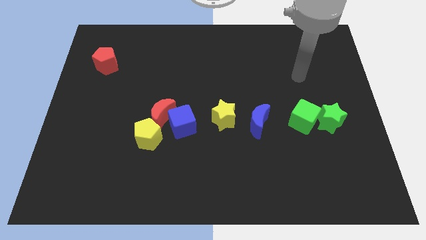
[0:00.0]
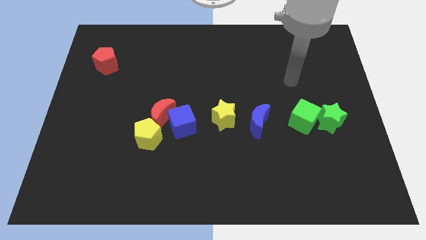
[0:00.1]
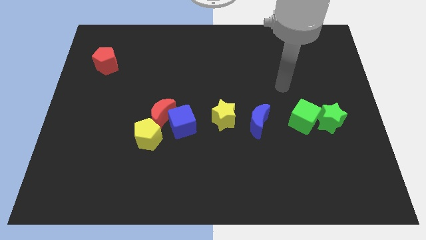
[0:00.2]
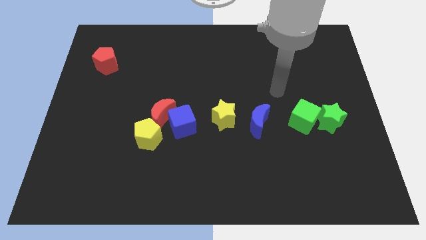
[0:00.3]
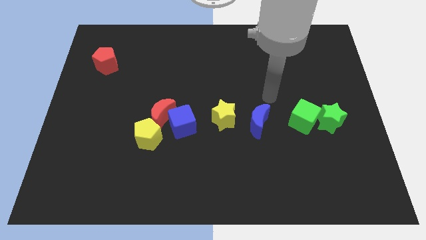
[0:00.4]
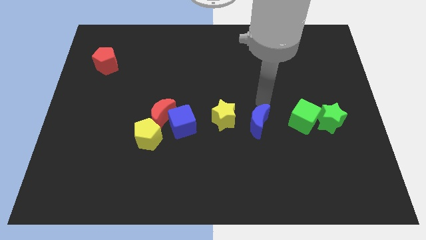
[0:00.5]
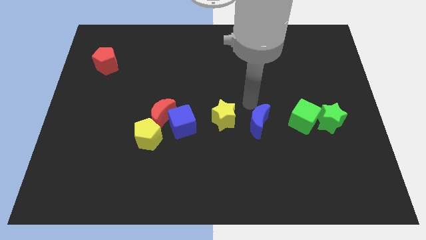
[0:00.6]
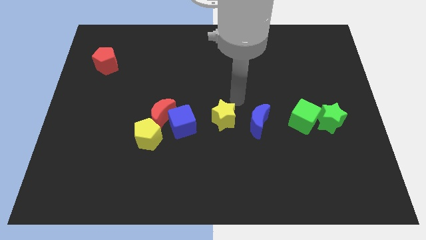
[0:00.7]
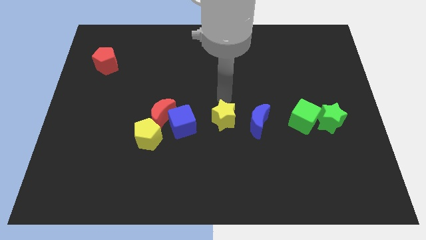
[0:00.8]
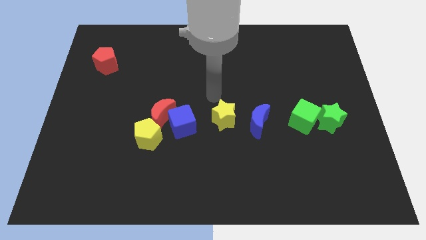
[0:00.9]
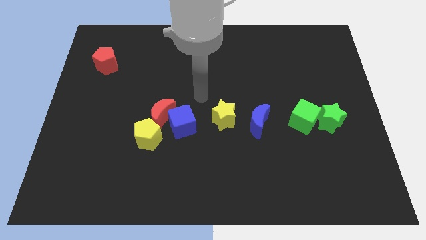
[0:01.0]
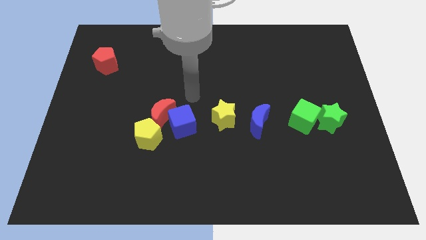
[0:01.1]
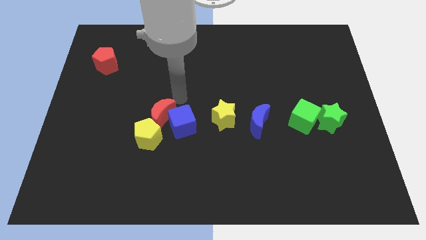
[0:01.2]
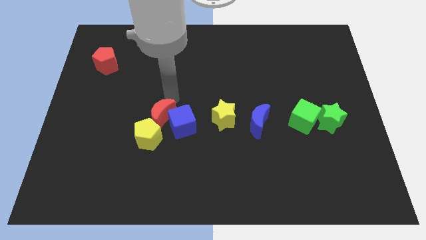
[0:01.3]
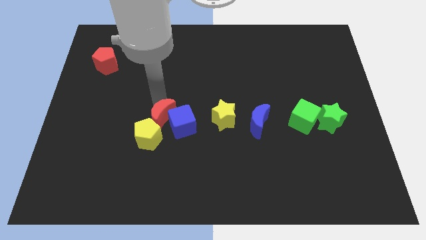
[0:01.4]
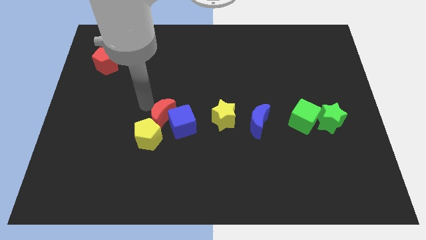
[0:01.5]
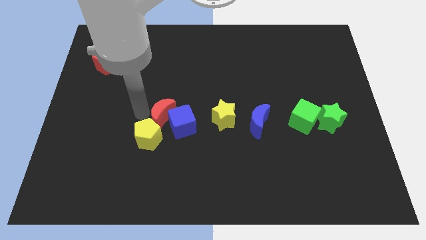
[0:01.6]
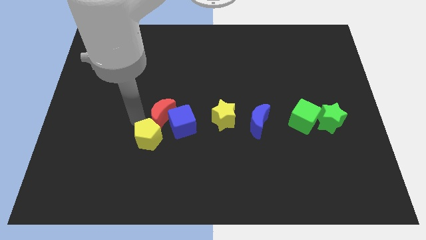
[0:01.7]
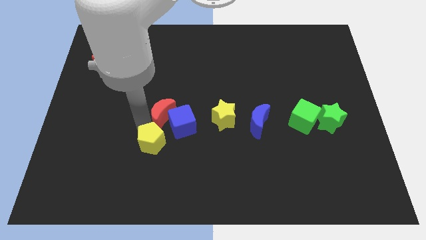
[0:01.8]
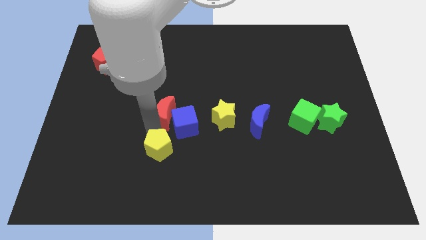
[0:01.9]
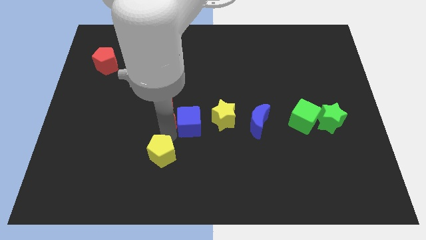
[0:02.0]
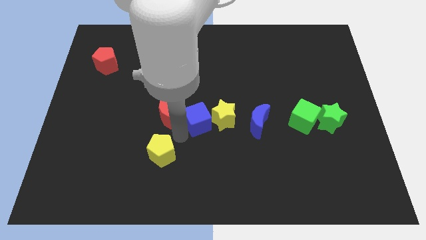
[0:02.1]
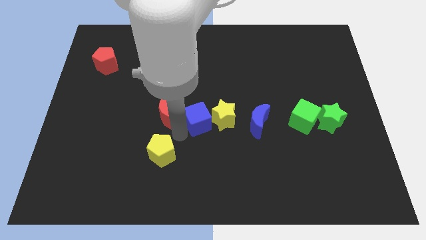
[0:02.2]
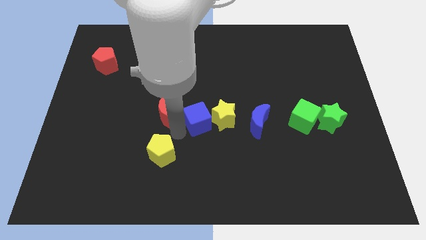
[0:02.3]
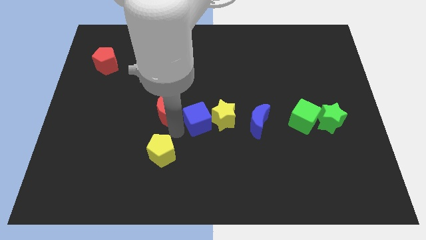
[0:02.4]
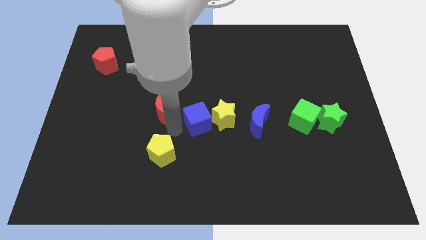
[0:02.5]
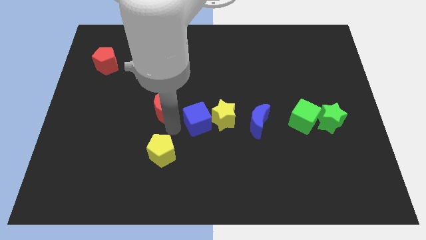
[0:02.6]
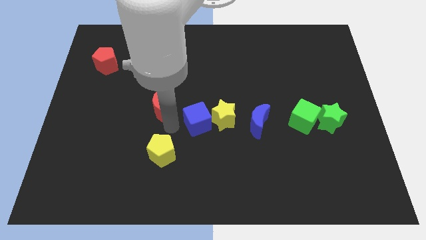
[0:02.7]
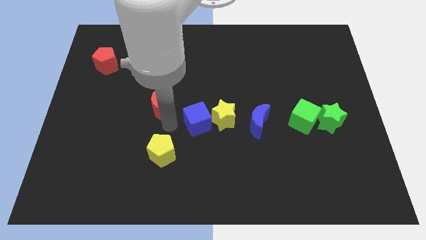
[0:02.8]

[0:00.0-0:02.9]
separate the red moon from the blue cube and yellow pentagon

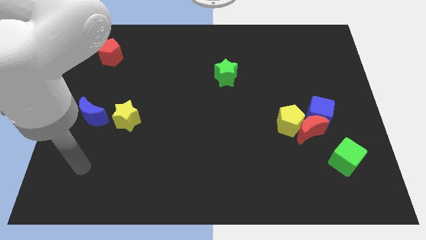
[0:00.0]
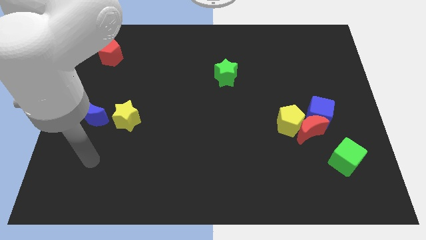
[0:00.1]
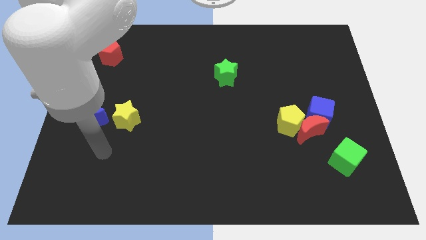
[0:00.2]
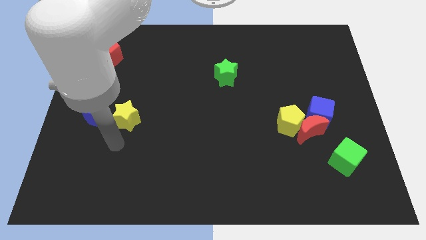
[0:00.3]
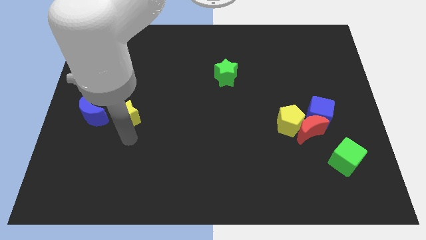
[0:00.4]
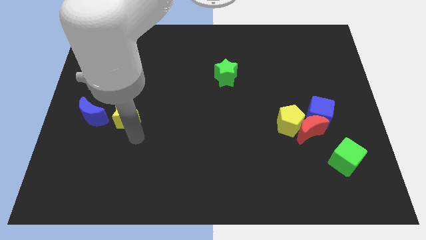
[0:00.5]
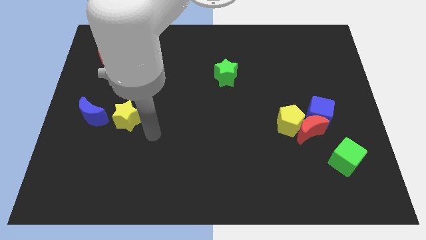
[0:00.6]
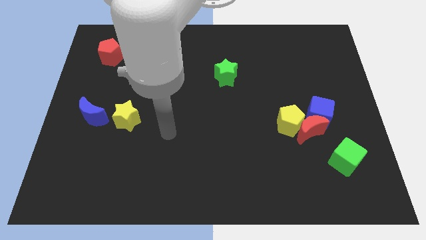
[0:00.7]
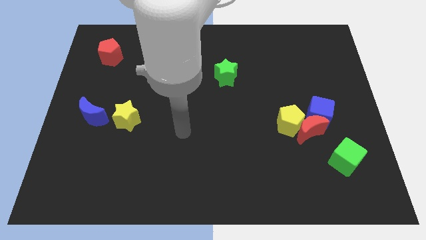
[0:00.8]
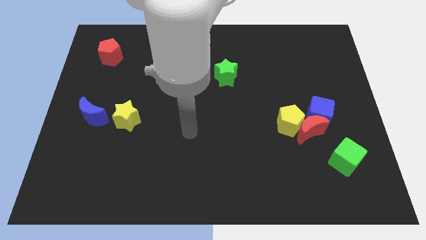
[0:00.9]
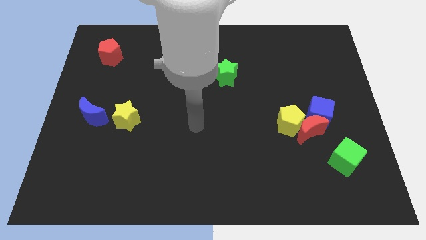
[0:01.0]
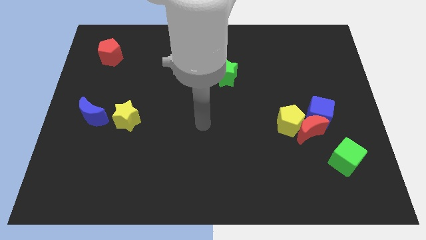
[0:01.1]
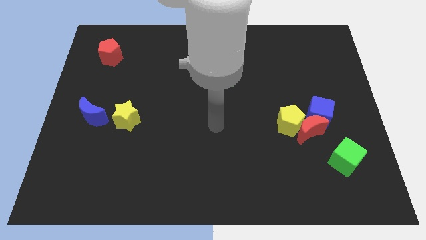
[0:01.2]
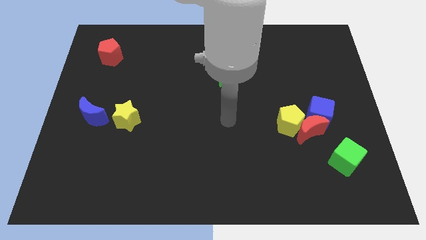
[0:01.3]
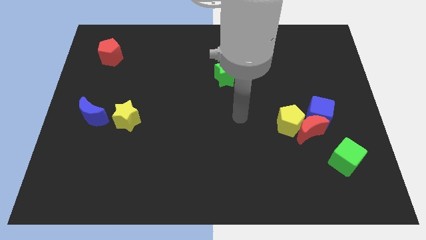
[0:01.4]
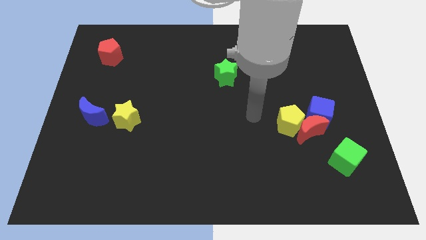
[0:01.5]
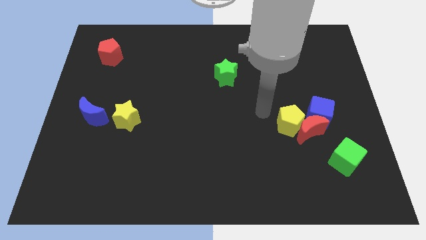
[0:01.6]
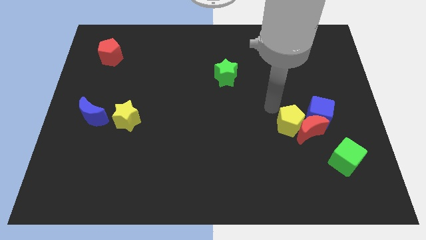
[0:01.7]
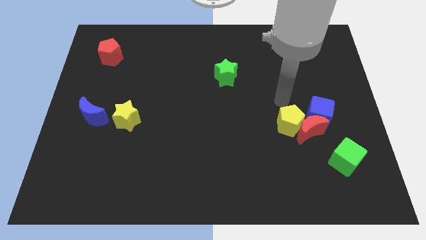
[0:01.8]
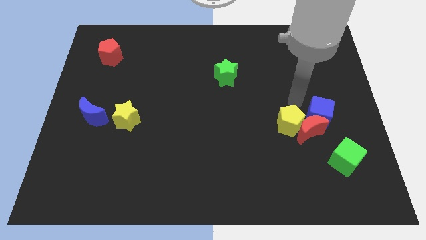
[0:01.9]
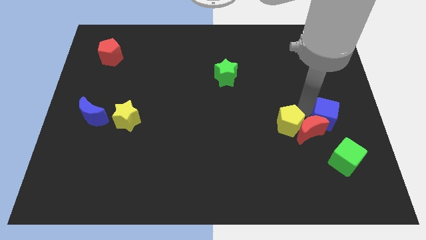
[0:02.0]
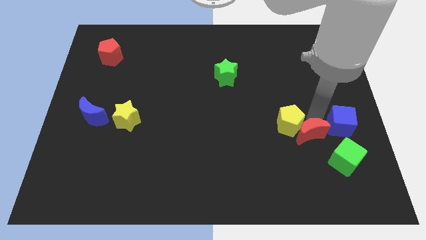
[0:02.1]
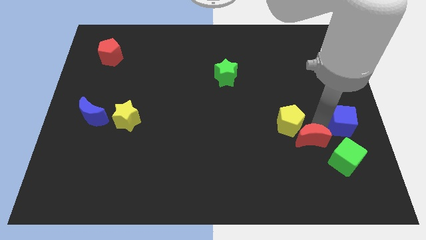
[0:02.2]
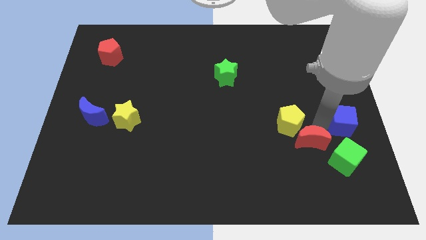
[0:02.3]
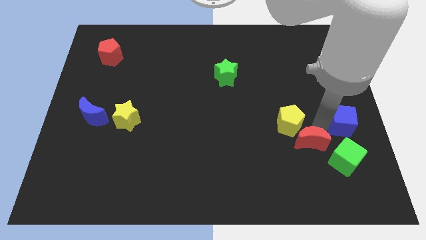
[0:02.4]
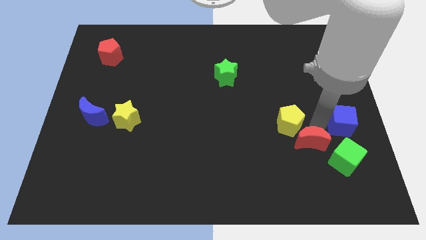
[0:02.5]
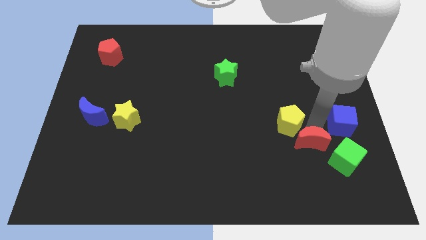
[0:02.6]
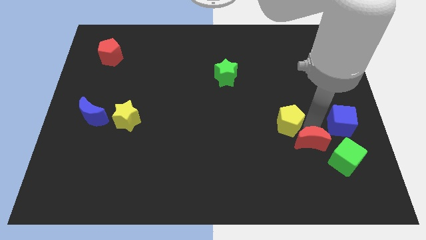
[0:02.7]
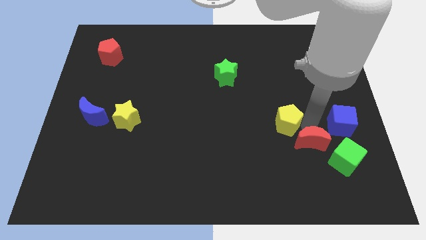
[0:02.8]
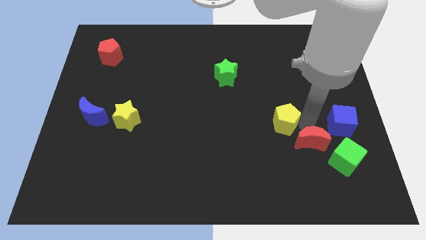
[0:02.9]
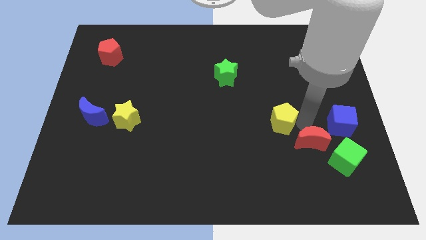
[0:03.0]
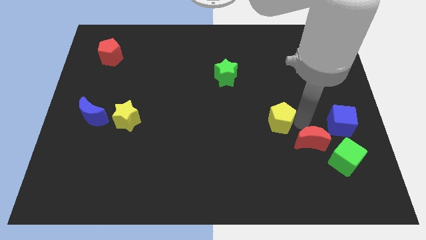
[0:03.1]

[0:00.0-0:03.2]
move the yellow pentagon away from the red moon and blue cube

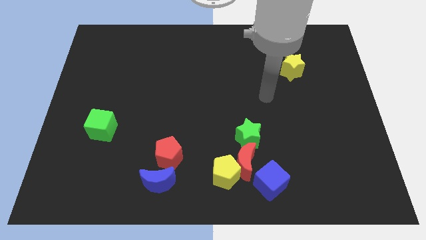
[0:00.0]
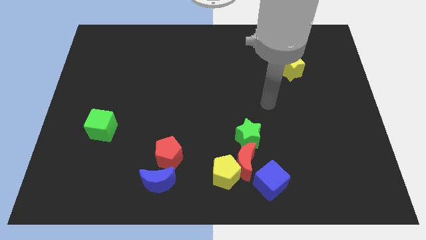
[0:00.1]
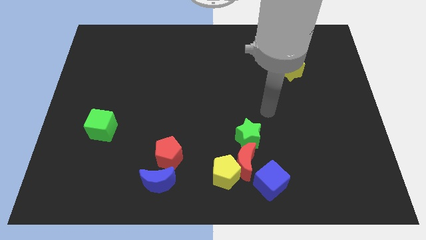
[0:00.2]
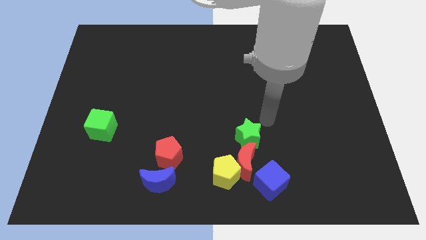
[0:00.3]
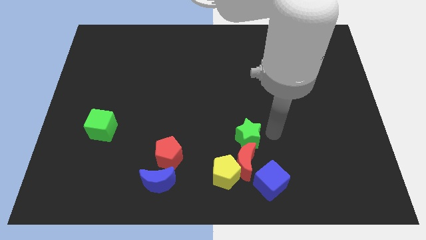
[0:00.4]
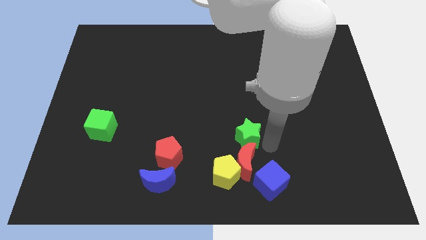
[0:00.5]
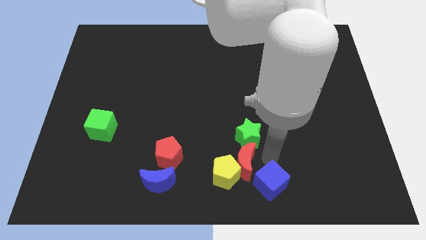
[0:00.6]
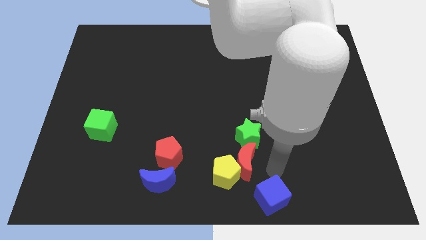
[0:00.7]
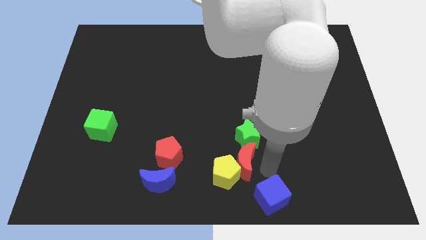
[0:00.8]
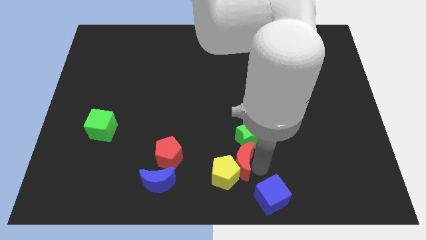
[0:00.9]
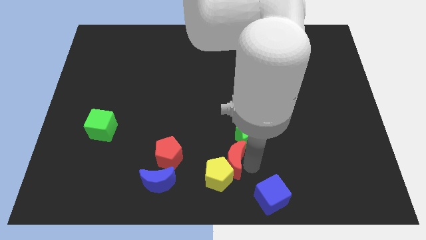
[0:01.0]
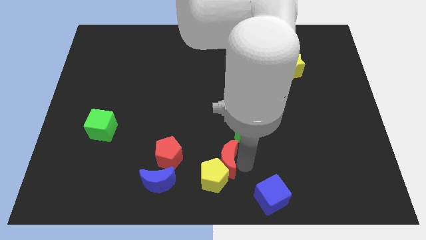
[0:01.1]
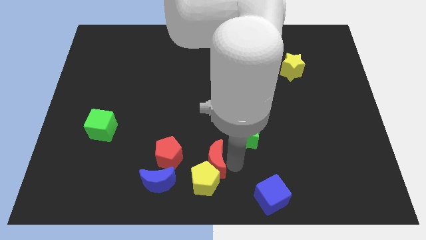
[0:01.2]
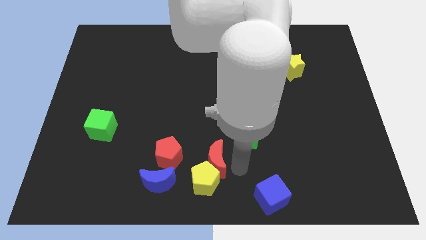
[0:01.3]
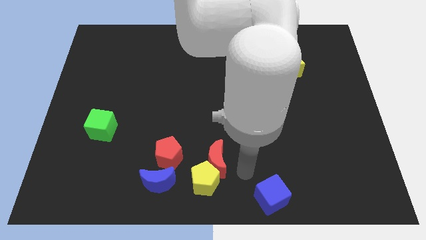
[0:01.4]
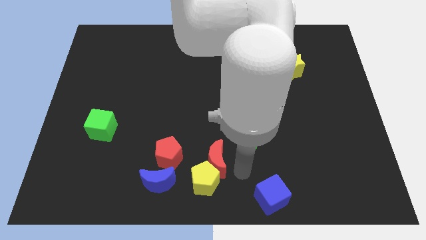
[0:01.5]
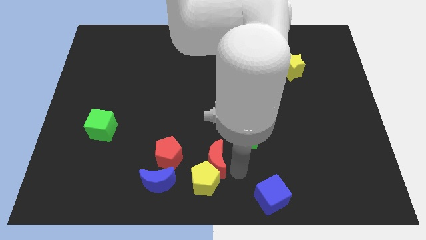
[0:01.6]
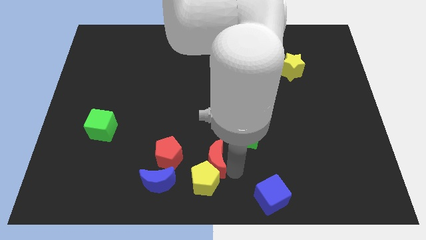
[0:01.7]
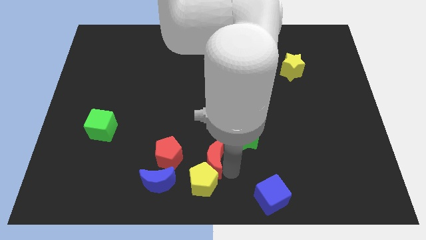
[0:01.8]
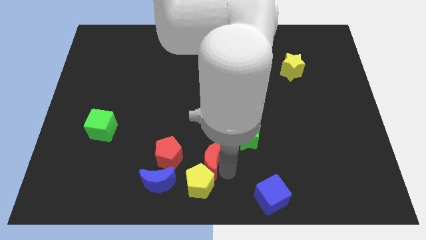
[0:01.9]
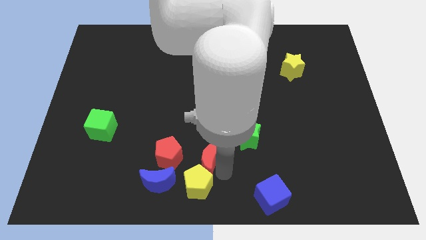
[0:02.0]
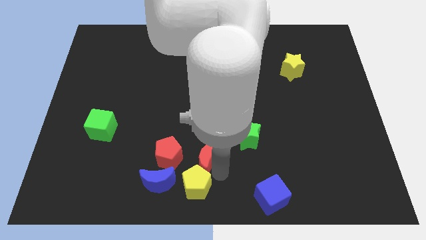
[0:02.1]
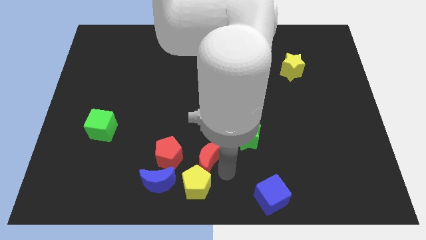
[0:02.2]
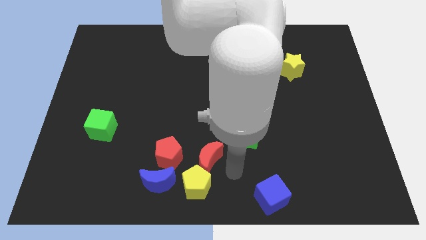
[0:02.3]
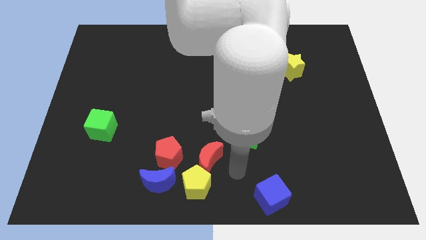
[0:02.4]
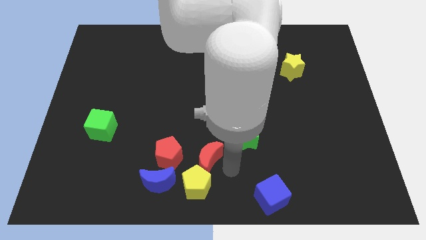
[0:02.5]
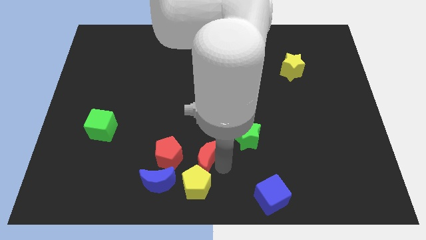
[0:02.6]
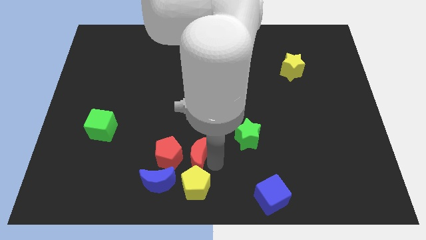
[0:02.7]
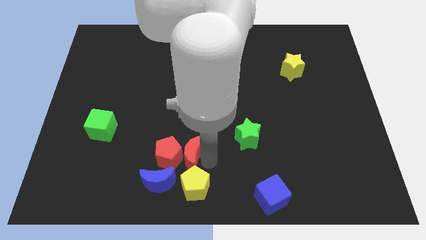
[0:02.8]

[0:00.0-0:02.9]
pull the red moon apart from the yellow pentagon, green star, and blue cube

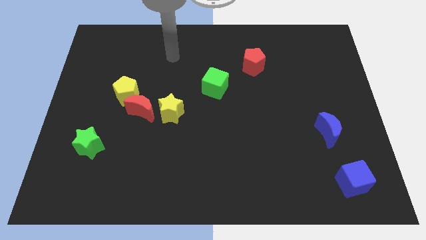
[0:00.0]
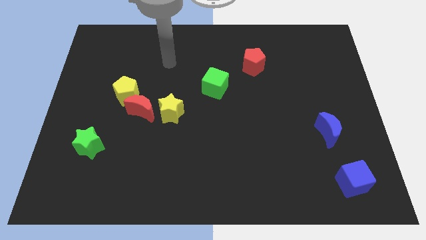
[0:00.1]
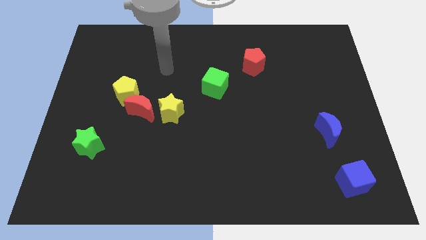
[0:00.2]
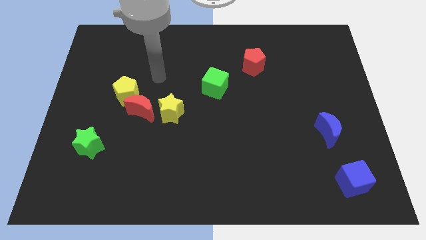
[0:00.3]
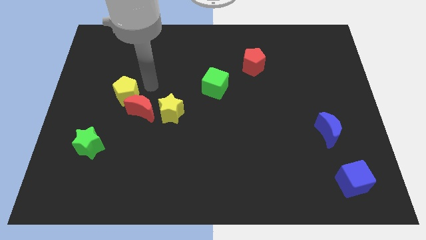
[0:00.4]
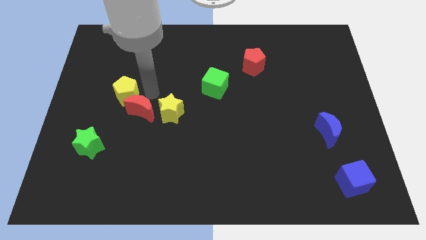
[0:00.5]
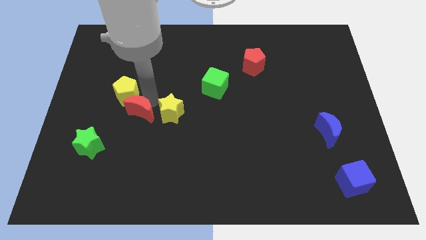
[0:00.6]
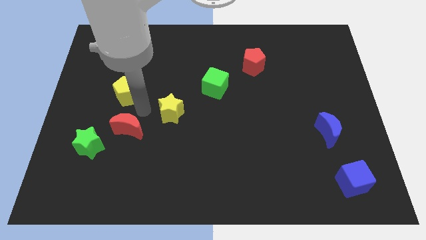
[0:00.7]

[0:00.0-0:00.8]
pull the yellow pentagon apart from the red moon
